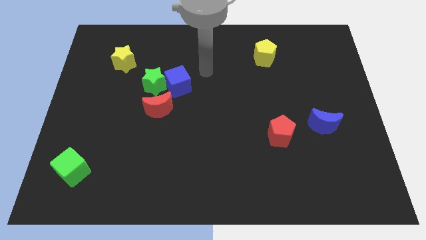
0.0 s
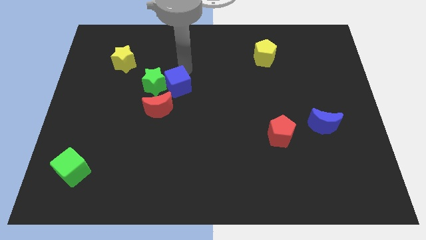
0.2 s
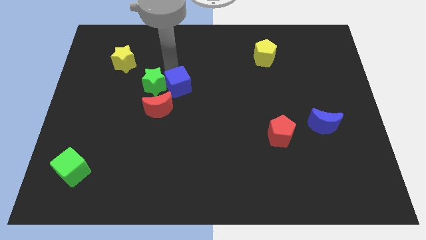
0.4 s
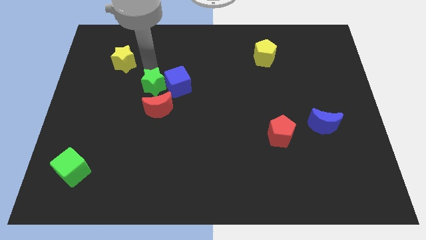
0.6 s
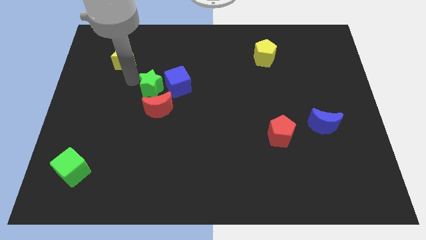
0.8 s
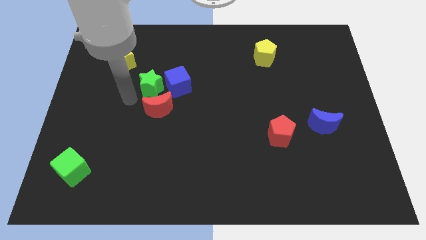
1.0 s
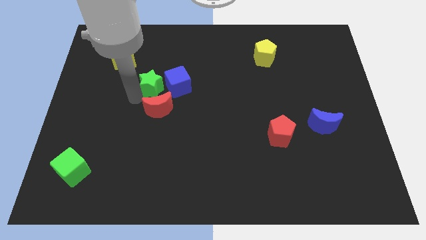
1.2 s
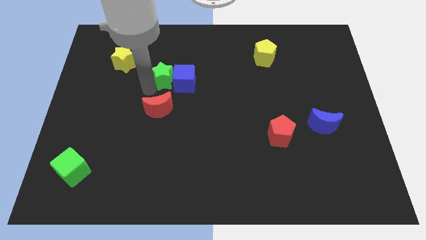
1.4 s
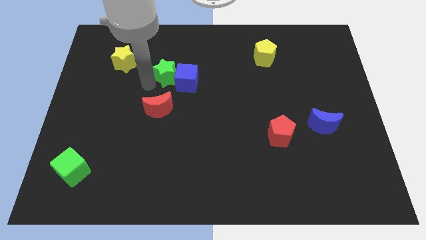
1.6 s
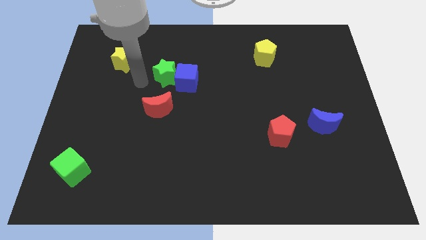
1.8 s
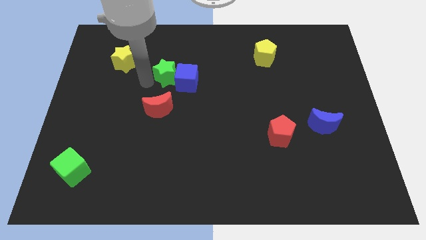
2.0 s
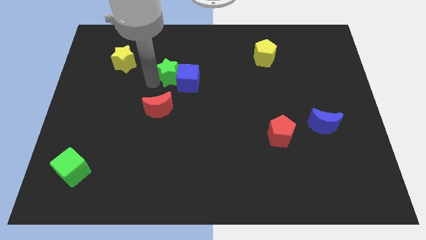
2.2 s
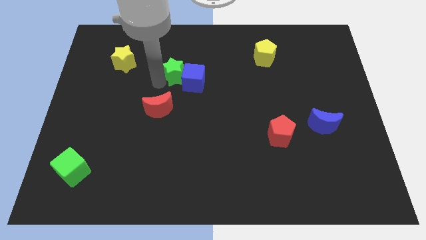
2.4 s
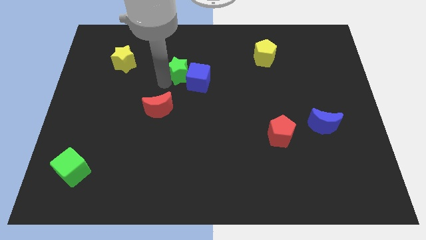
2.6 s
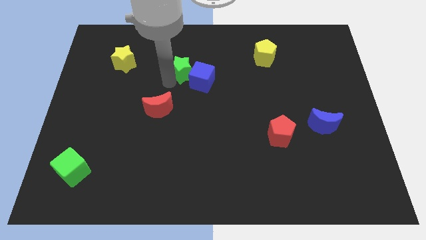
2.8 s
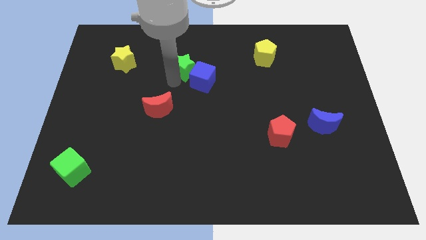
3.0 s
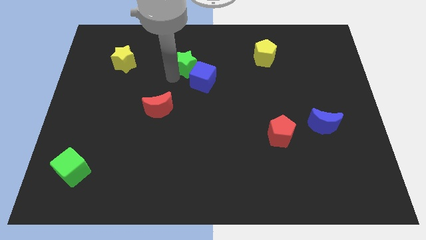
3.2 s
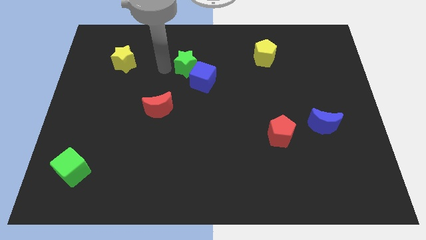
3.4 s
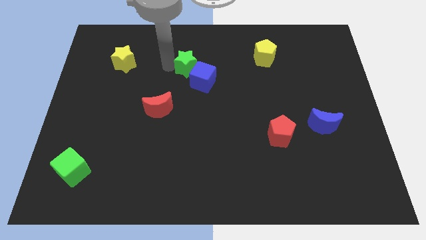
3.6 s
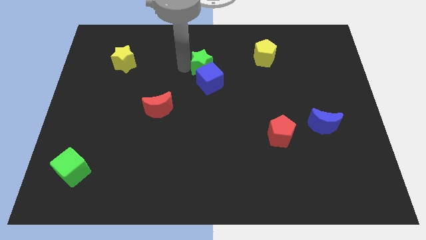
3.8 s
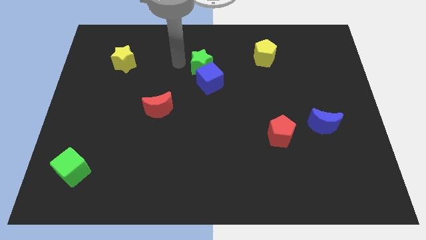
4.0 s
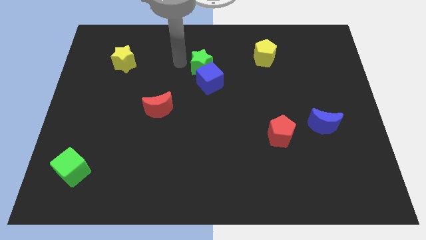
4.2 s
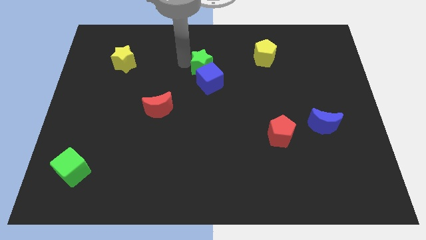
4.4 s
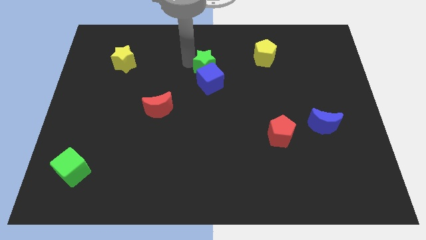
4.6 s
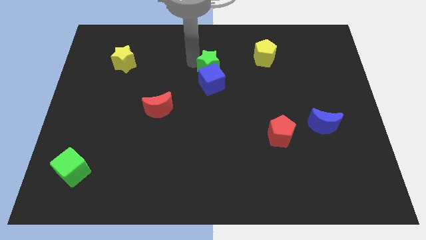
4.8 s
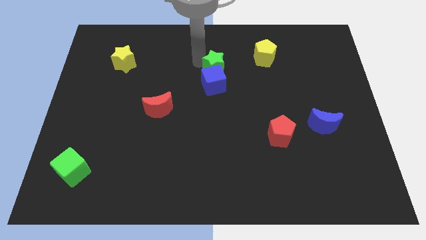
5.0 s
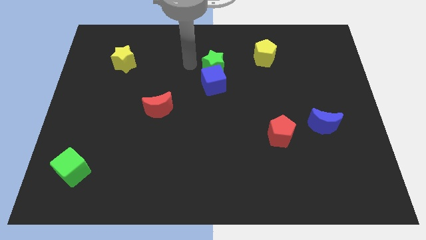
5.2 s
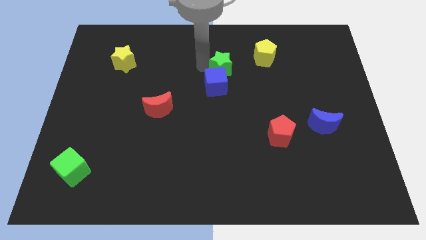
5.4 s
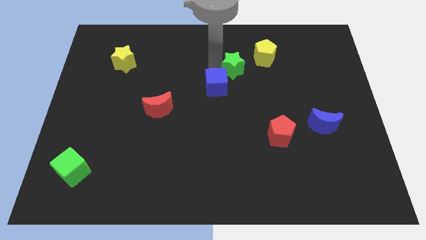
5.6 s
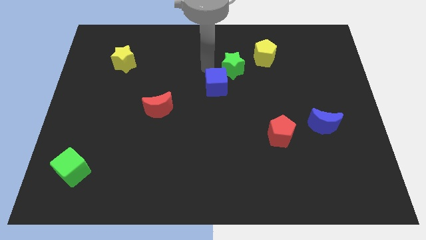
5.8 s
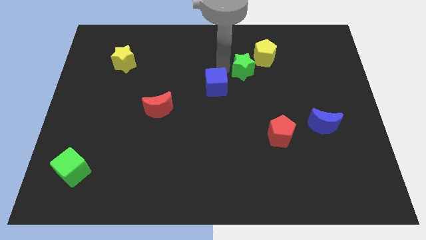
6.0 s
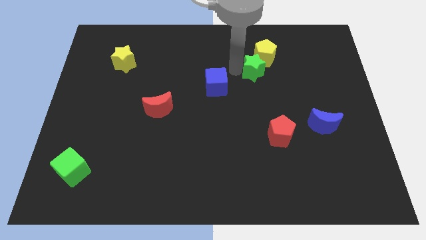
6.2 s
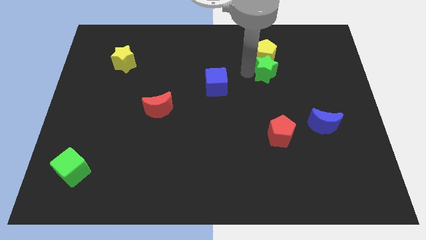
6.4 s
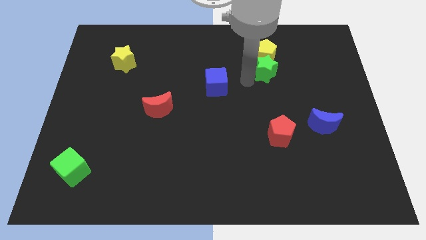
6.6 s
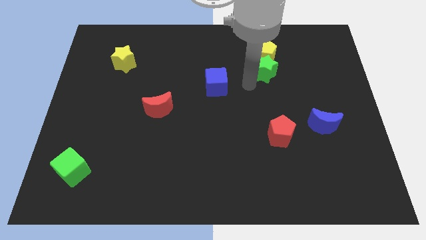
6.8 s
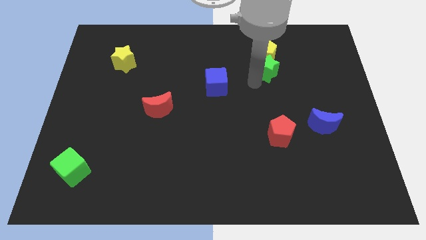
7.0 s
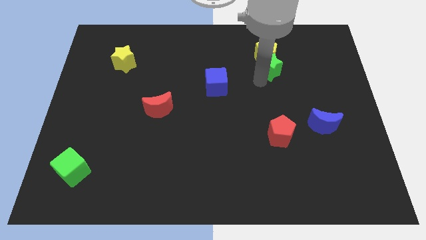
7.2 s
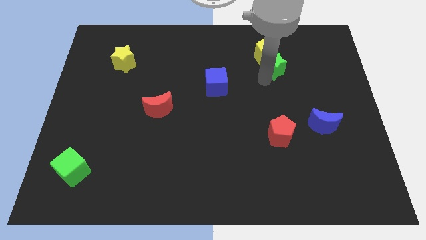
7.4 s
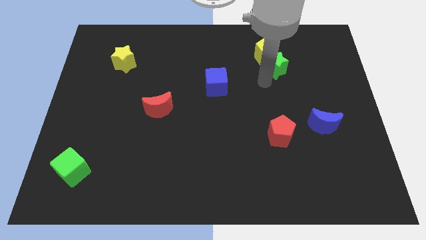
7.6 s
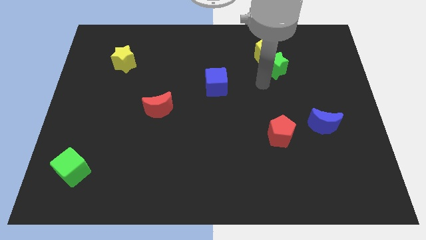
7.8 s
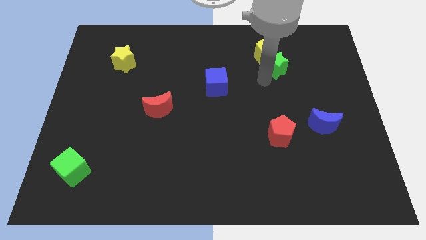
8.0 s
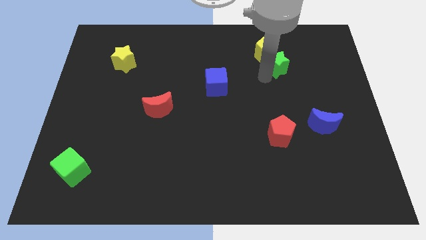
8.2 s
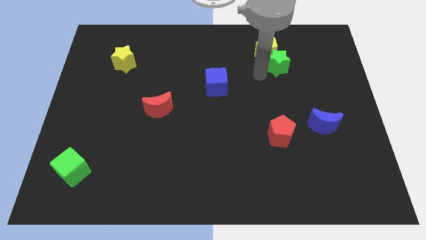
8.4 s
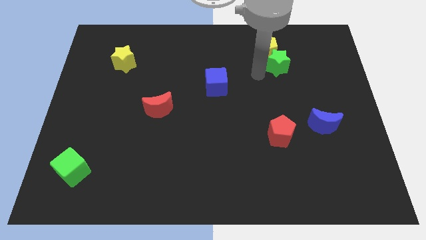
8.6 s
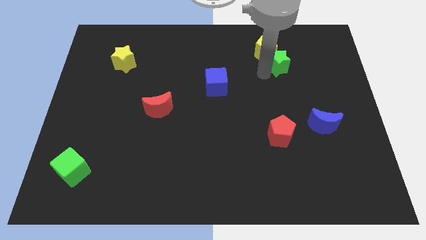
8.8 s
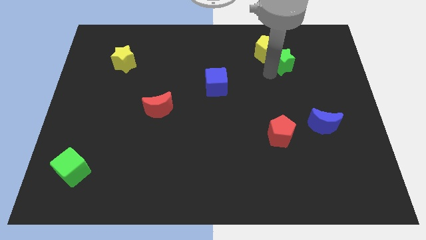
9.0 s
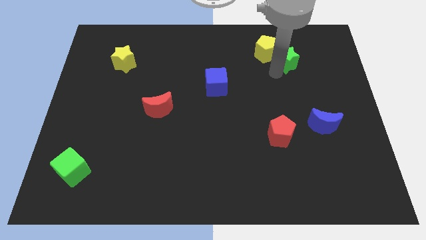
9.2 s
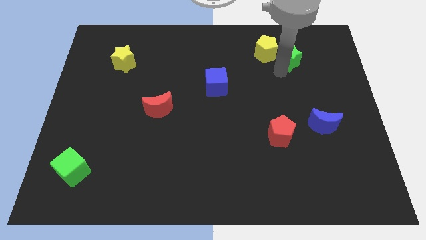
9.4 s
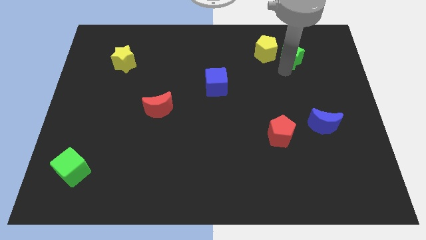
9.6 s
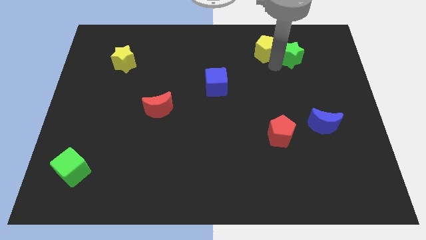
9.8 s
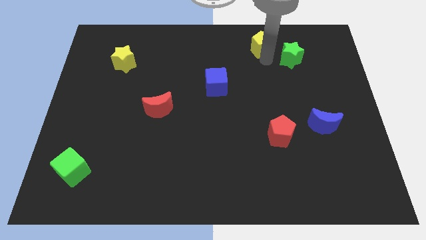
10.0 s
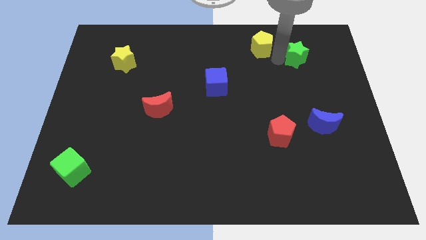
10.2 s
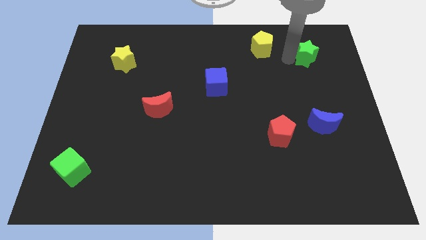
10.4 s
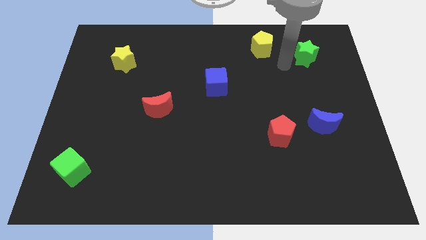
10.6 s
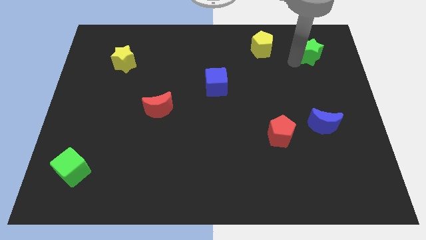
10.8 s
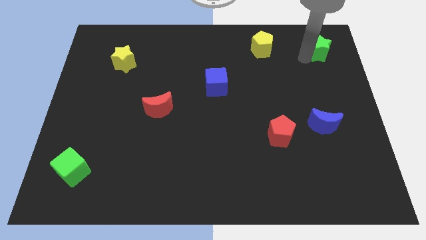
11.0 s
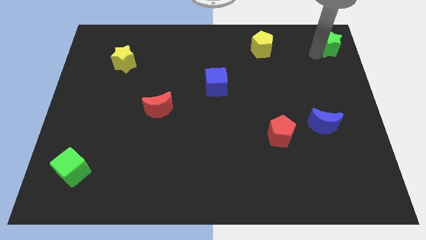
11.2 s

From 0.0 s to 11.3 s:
slide the green star to the top right corner
